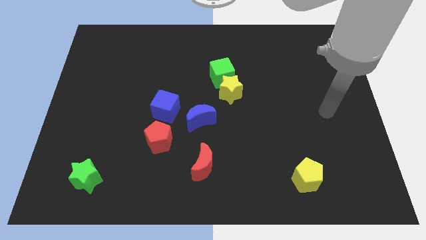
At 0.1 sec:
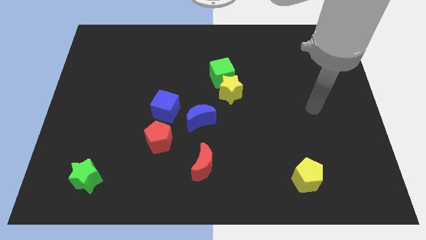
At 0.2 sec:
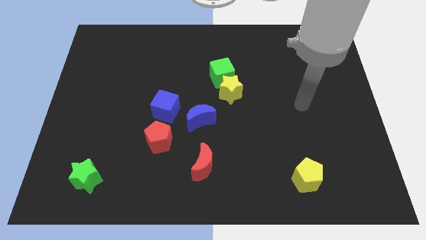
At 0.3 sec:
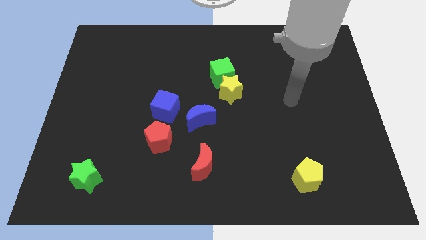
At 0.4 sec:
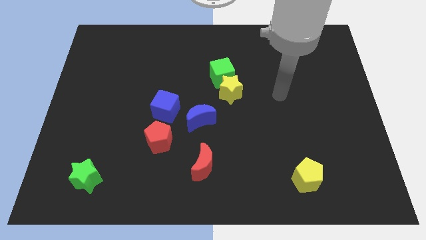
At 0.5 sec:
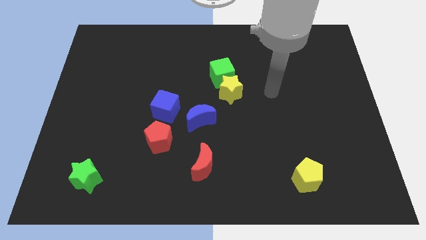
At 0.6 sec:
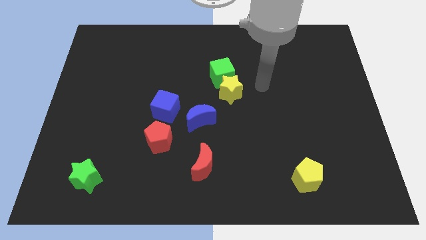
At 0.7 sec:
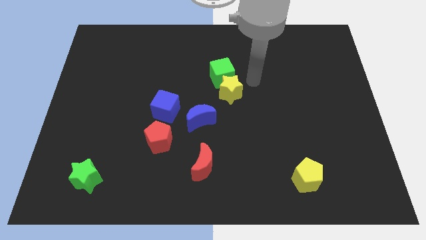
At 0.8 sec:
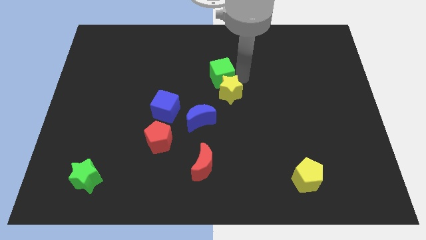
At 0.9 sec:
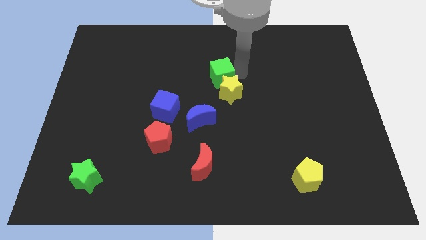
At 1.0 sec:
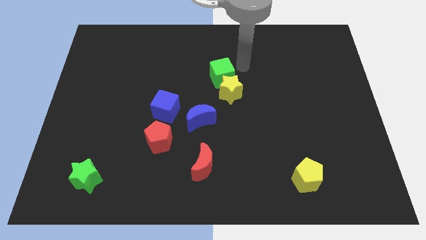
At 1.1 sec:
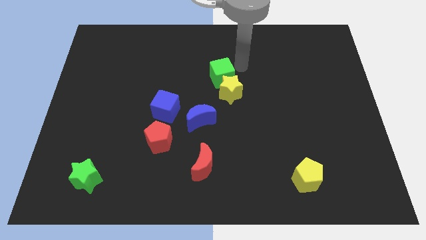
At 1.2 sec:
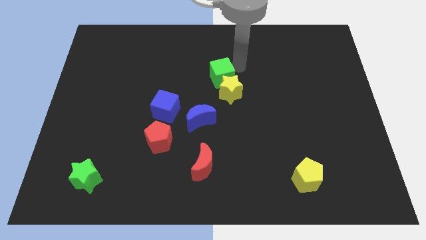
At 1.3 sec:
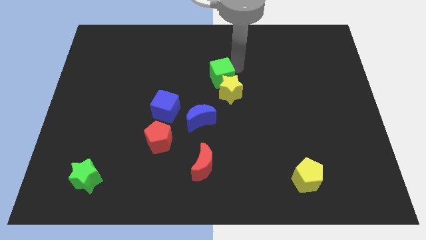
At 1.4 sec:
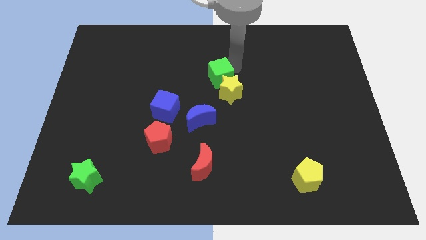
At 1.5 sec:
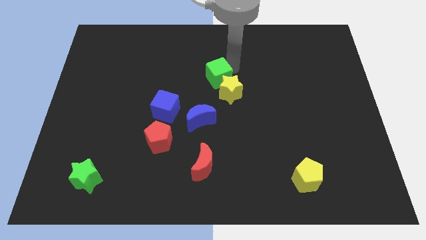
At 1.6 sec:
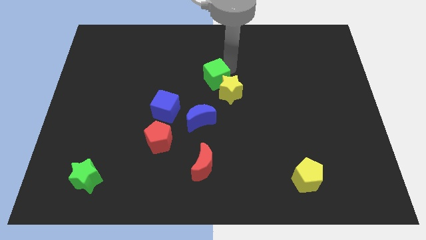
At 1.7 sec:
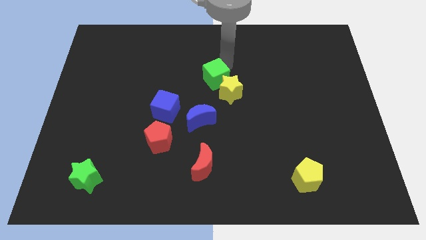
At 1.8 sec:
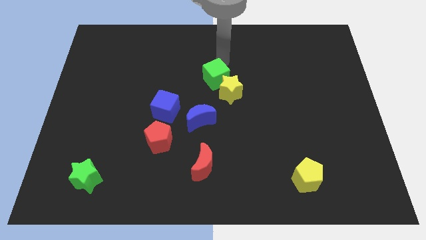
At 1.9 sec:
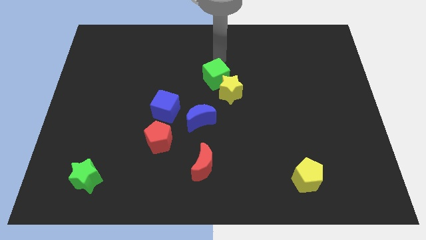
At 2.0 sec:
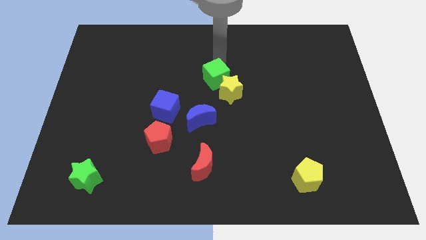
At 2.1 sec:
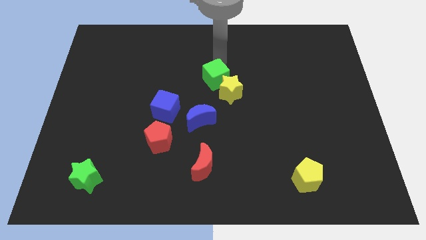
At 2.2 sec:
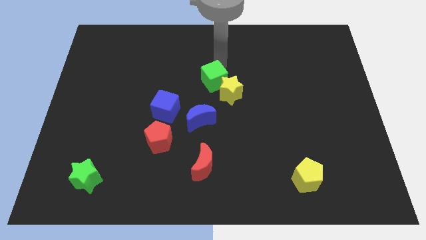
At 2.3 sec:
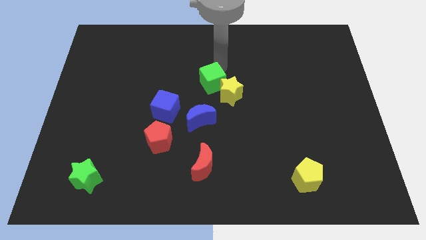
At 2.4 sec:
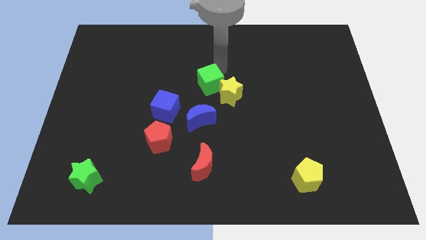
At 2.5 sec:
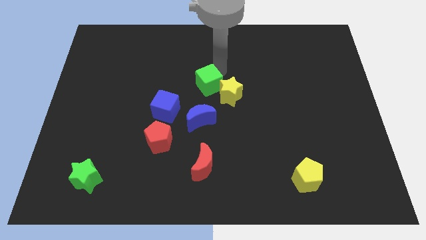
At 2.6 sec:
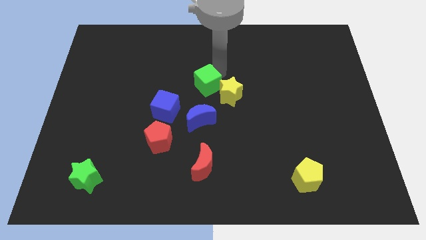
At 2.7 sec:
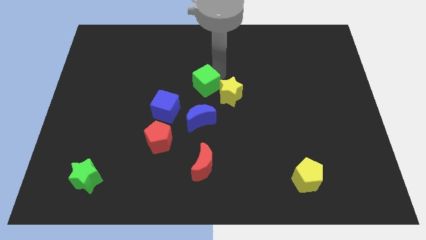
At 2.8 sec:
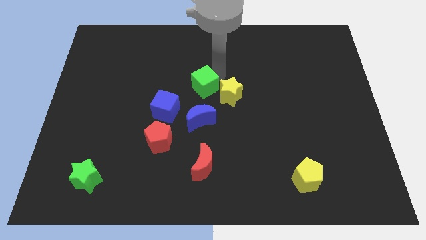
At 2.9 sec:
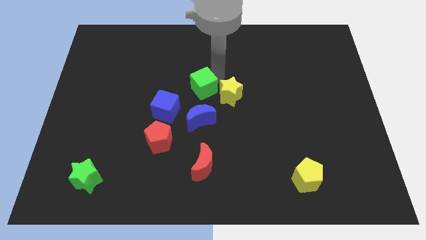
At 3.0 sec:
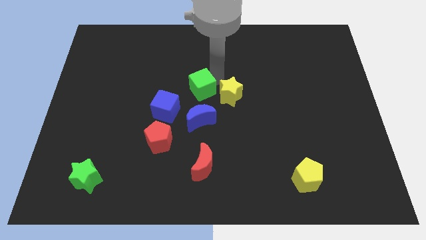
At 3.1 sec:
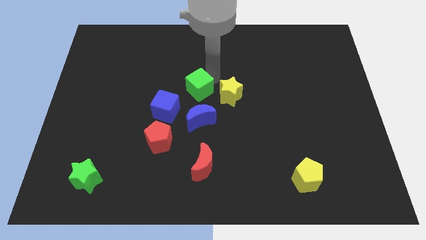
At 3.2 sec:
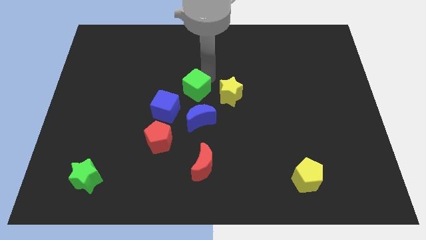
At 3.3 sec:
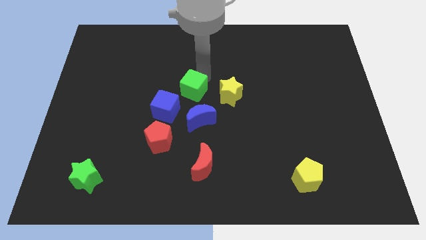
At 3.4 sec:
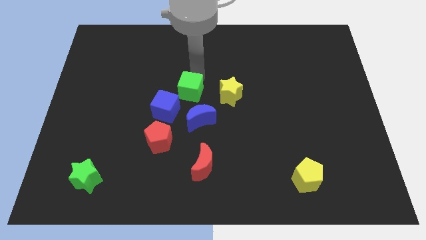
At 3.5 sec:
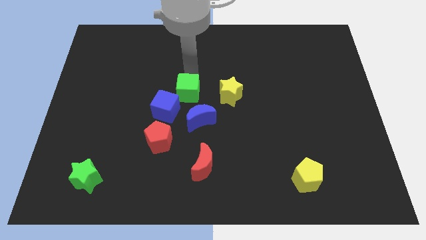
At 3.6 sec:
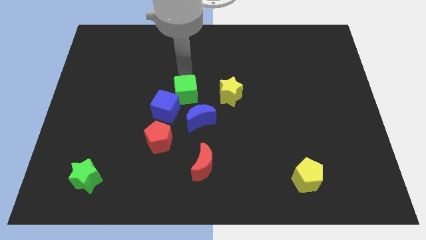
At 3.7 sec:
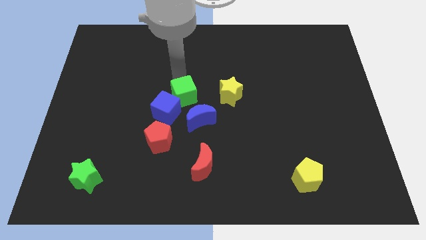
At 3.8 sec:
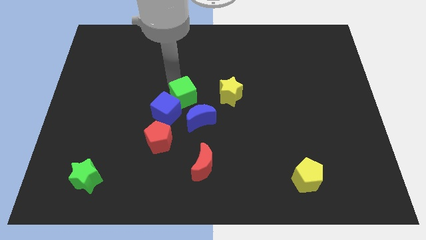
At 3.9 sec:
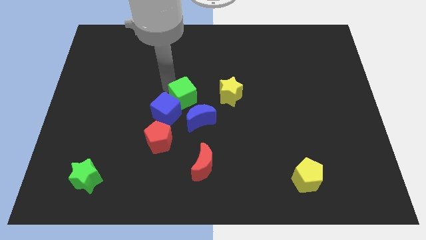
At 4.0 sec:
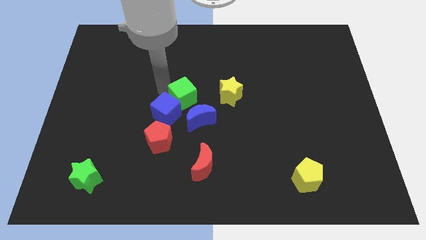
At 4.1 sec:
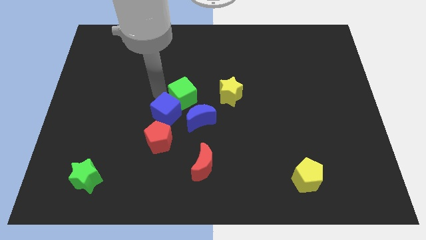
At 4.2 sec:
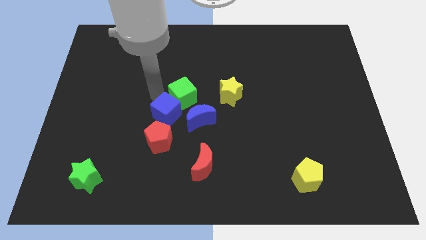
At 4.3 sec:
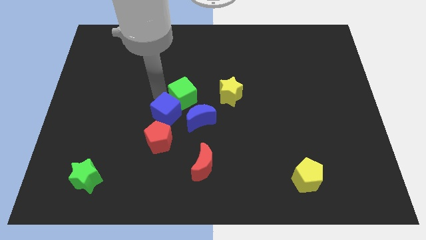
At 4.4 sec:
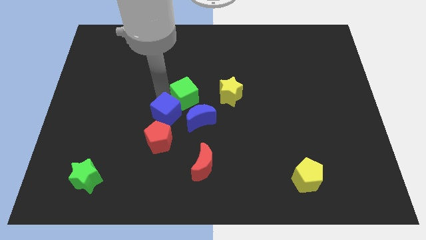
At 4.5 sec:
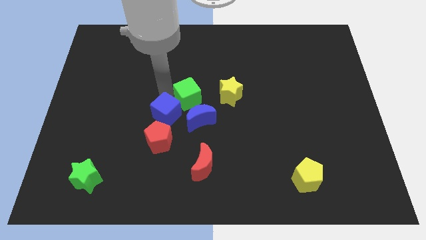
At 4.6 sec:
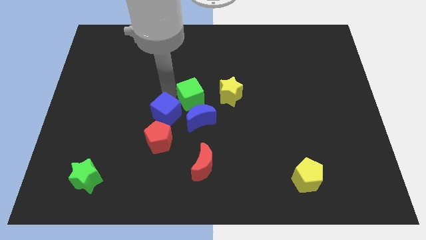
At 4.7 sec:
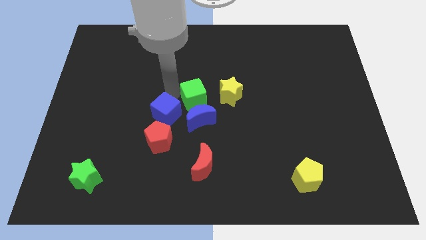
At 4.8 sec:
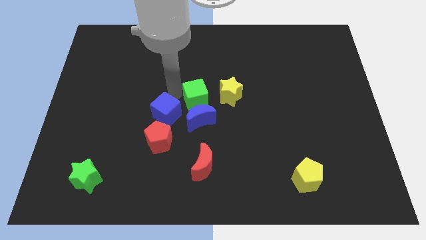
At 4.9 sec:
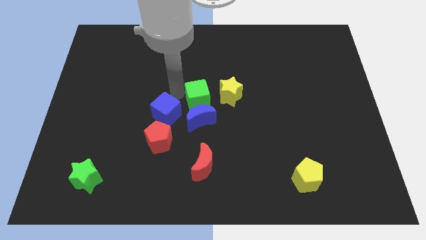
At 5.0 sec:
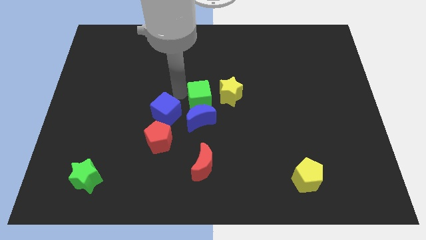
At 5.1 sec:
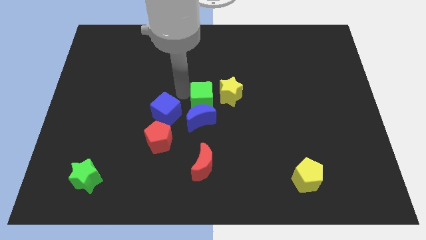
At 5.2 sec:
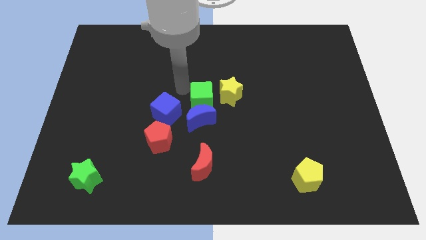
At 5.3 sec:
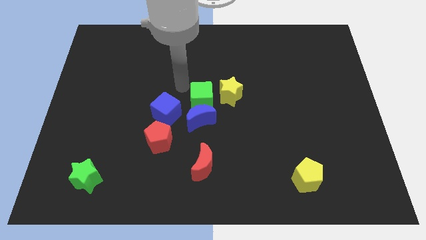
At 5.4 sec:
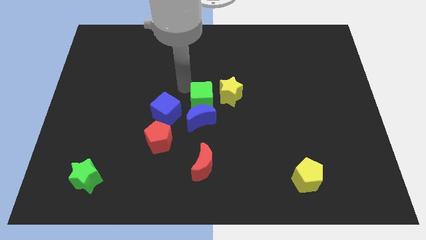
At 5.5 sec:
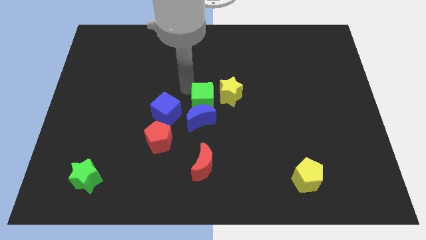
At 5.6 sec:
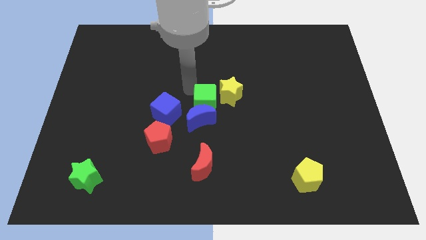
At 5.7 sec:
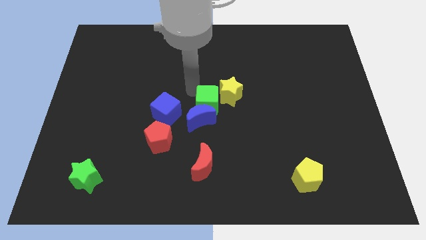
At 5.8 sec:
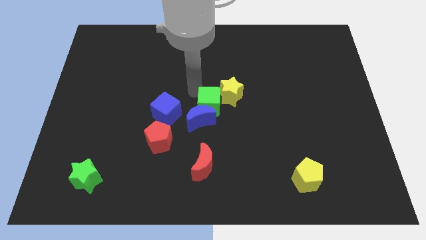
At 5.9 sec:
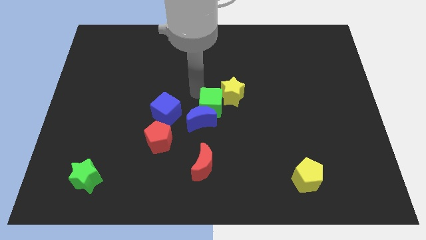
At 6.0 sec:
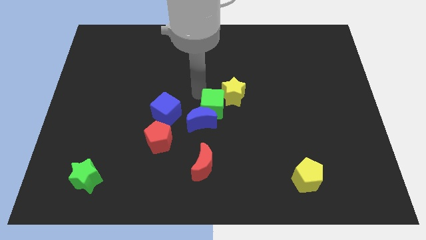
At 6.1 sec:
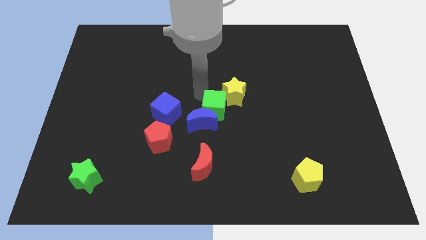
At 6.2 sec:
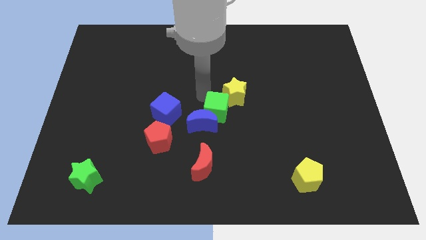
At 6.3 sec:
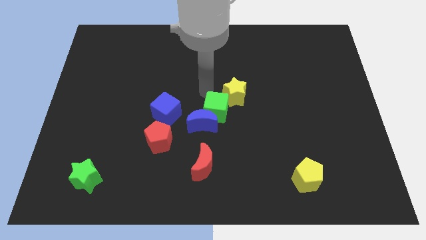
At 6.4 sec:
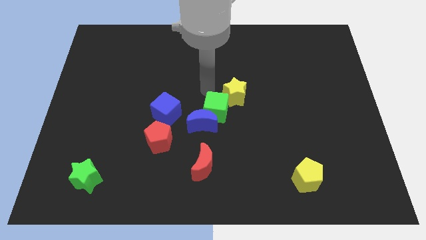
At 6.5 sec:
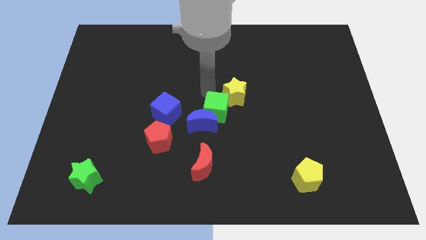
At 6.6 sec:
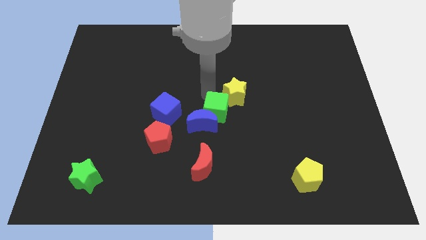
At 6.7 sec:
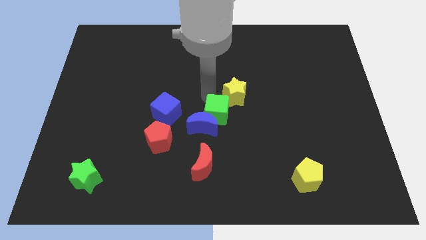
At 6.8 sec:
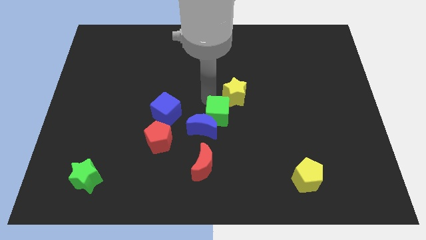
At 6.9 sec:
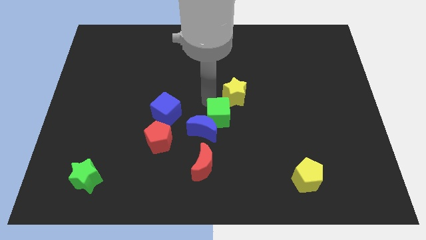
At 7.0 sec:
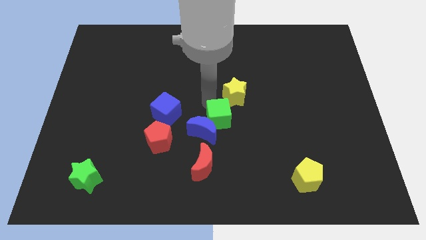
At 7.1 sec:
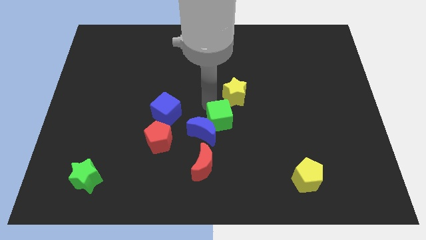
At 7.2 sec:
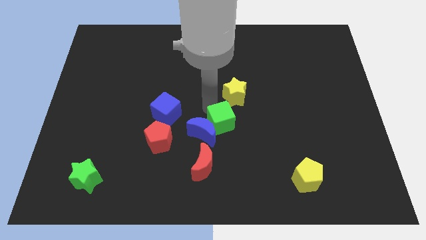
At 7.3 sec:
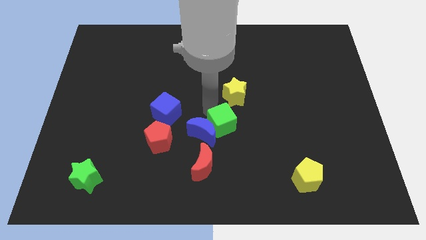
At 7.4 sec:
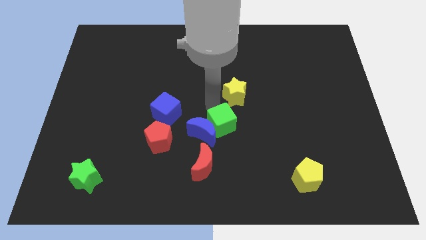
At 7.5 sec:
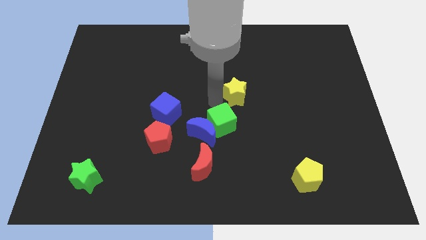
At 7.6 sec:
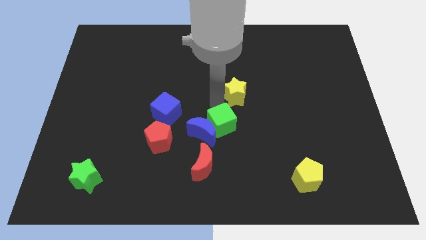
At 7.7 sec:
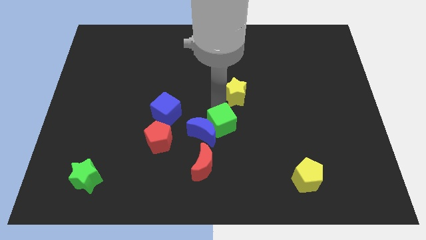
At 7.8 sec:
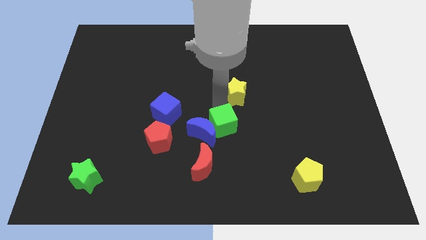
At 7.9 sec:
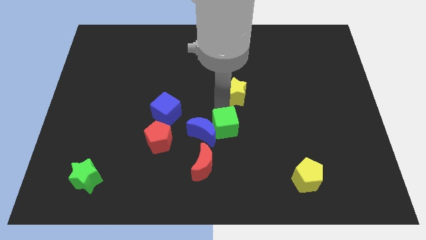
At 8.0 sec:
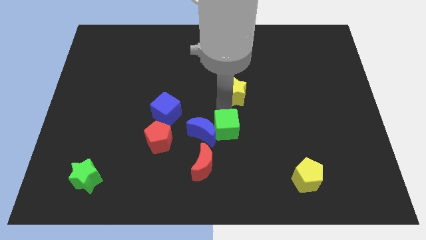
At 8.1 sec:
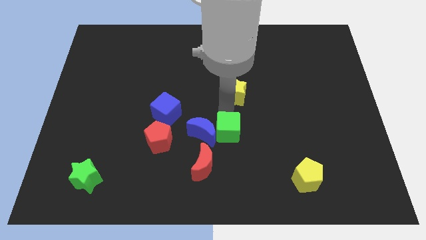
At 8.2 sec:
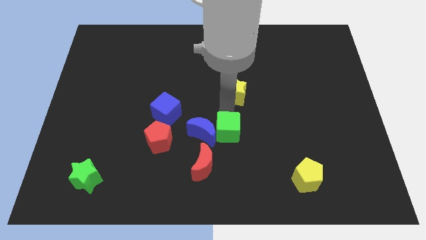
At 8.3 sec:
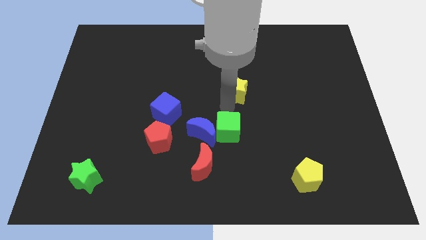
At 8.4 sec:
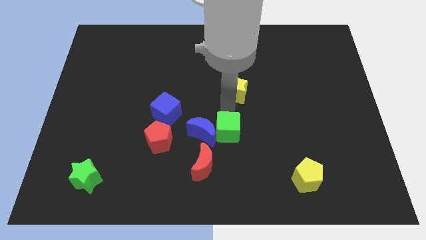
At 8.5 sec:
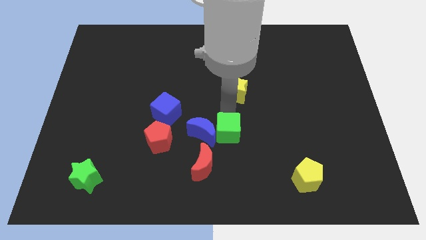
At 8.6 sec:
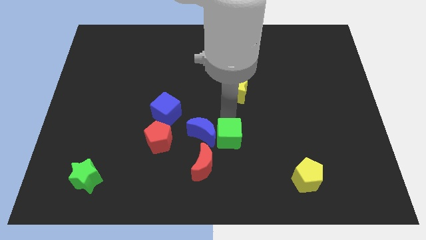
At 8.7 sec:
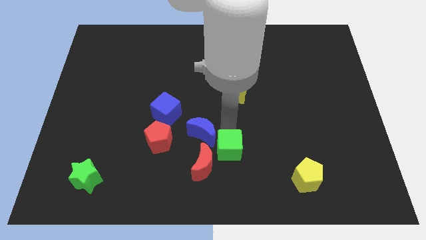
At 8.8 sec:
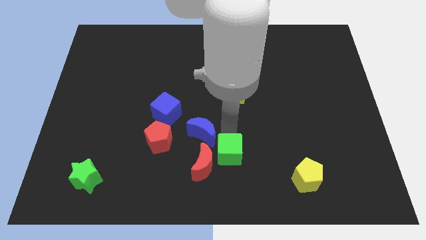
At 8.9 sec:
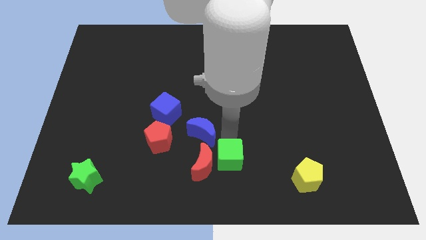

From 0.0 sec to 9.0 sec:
push the green cube to the bottom
